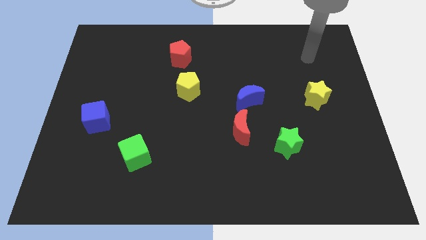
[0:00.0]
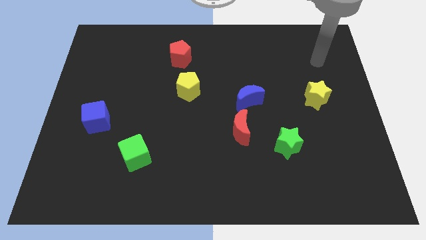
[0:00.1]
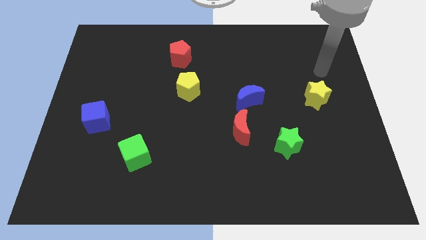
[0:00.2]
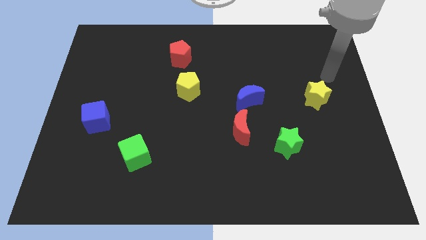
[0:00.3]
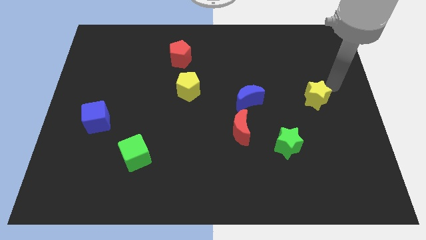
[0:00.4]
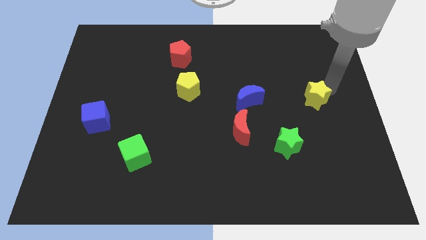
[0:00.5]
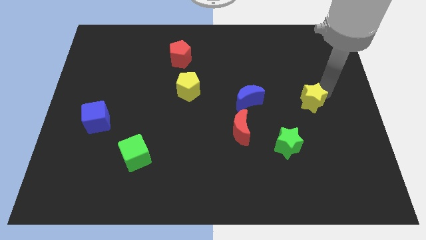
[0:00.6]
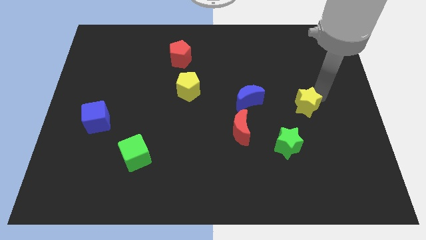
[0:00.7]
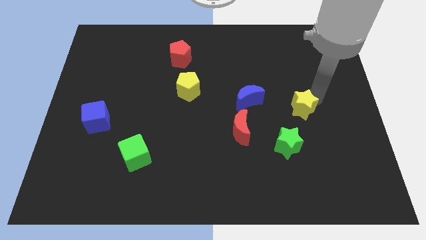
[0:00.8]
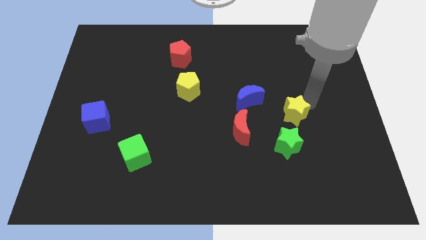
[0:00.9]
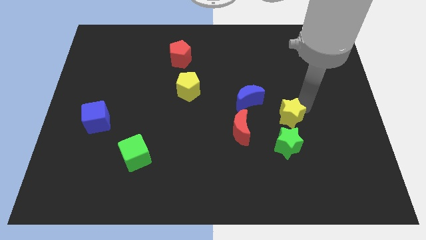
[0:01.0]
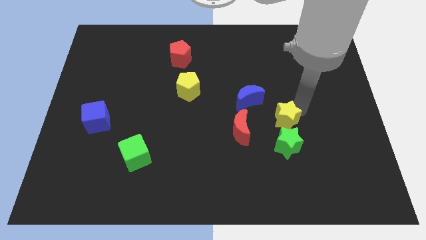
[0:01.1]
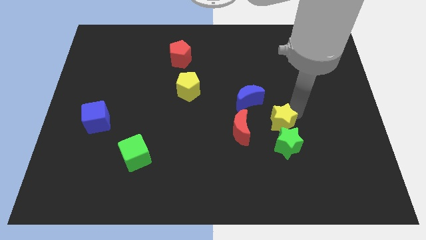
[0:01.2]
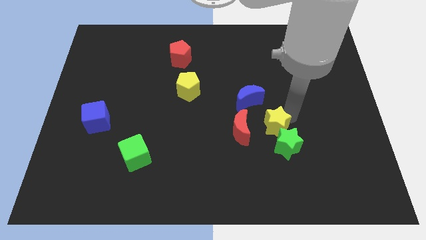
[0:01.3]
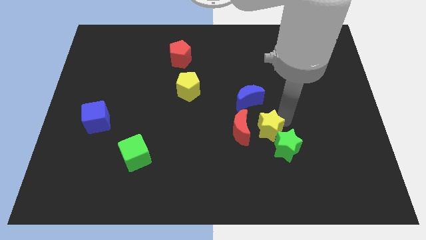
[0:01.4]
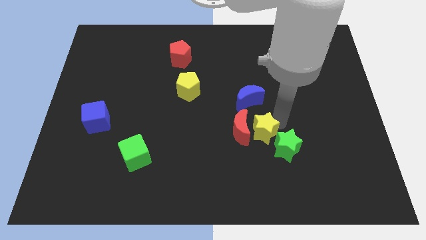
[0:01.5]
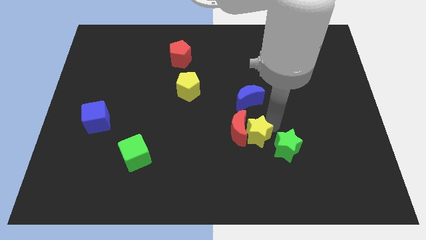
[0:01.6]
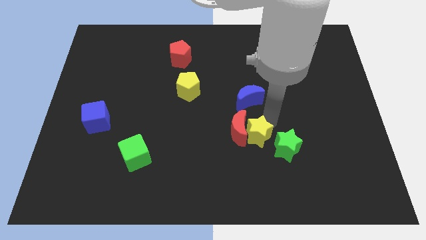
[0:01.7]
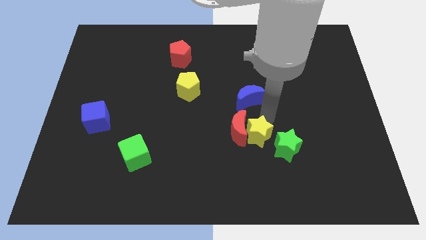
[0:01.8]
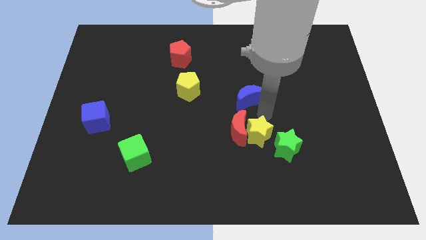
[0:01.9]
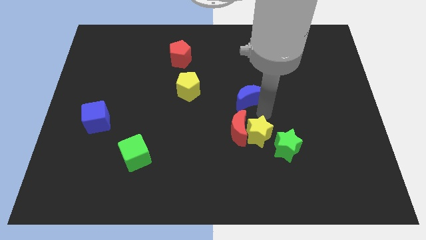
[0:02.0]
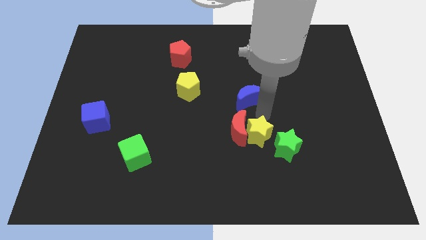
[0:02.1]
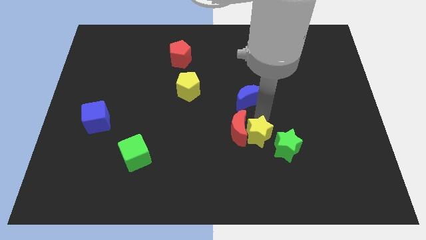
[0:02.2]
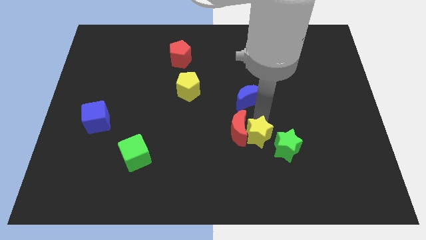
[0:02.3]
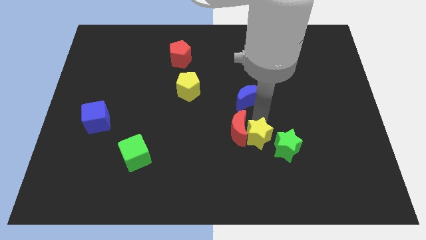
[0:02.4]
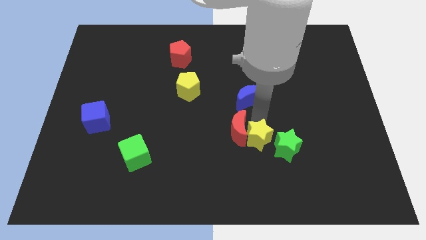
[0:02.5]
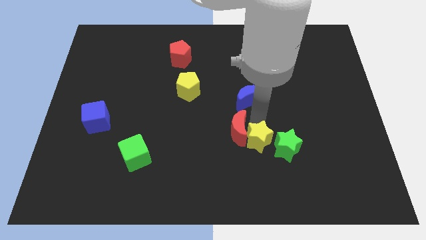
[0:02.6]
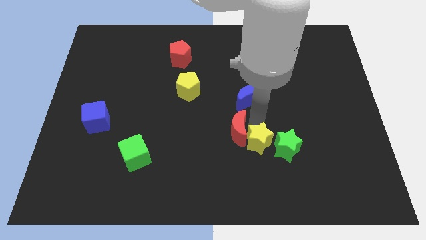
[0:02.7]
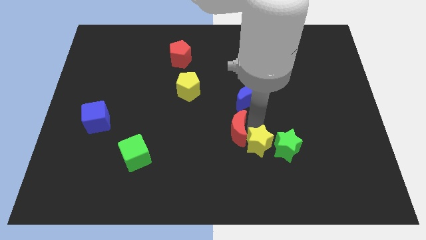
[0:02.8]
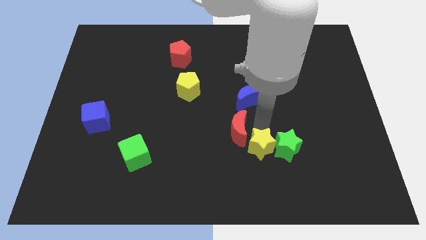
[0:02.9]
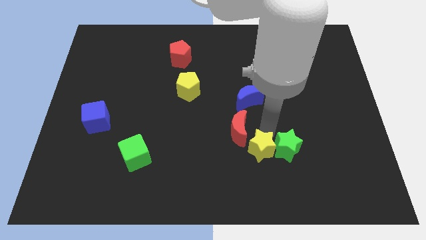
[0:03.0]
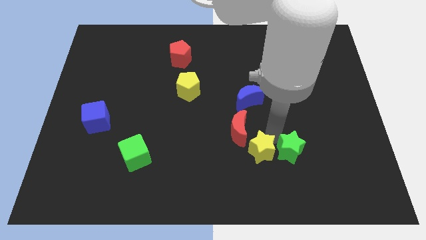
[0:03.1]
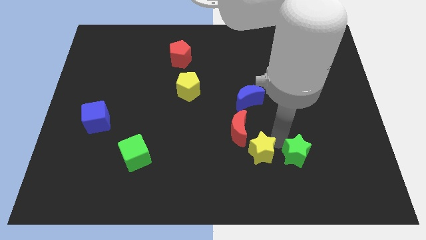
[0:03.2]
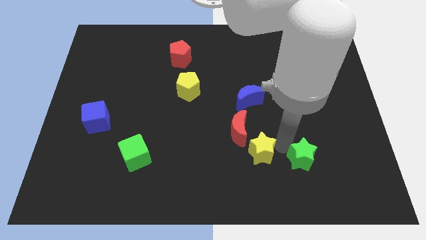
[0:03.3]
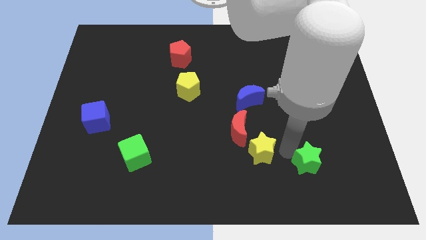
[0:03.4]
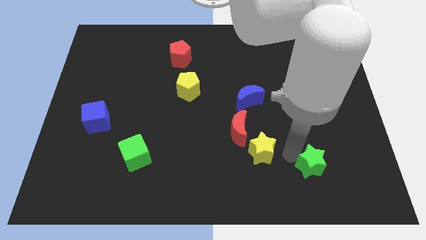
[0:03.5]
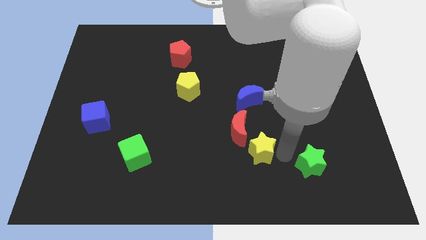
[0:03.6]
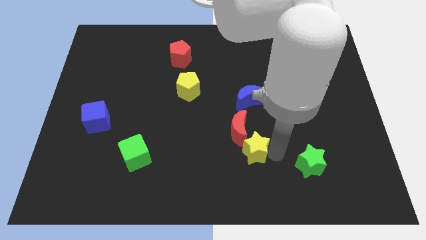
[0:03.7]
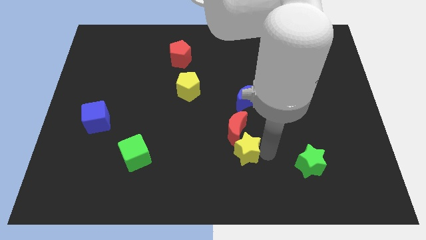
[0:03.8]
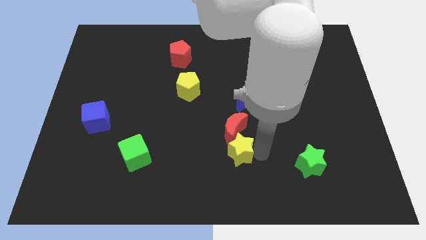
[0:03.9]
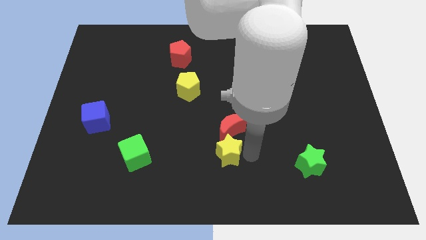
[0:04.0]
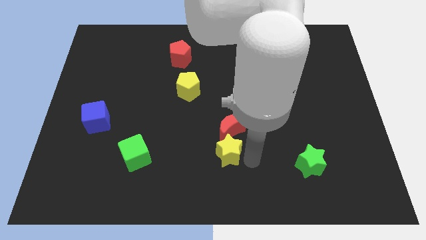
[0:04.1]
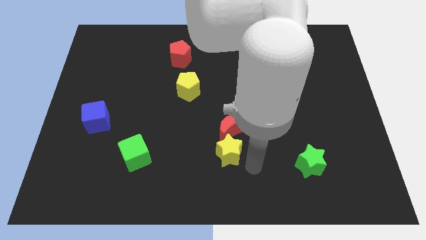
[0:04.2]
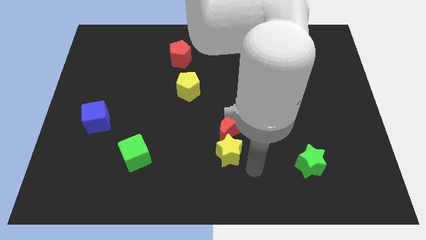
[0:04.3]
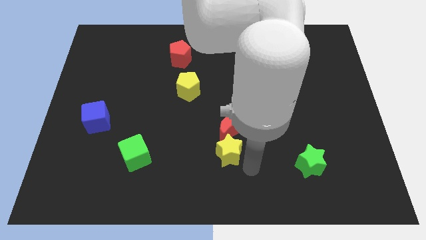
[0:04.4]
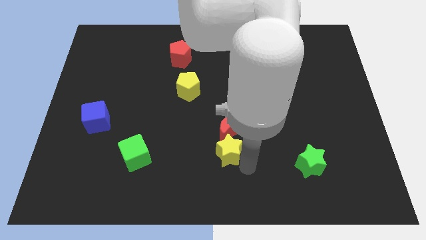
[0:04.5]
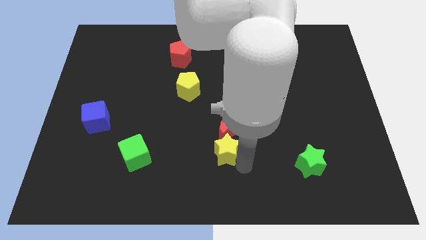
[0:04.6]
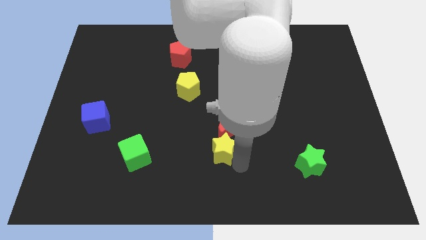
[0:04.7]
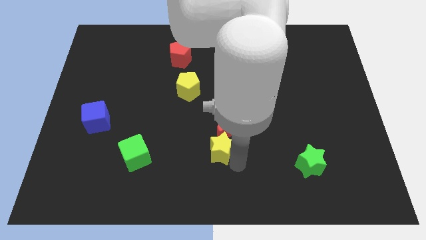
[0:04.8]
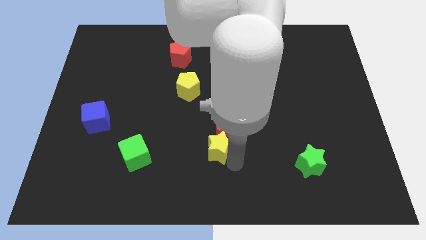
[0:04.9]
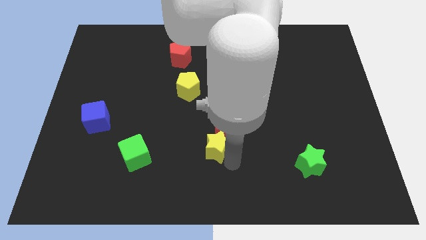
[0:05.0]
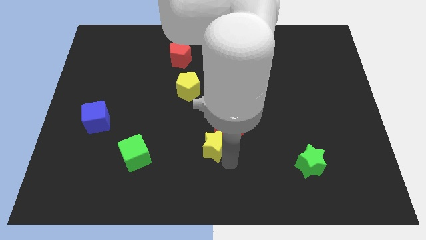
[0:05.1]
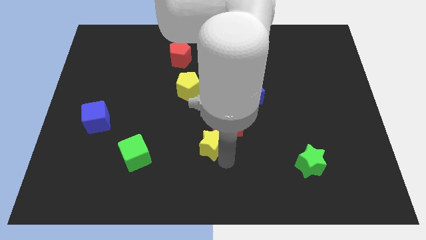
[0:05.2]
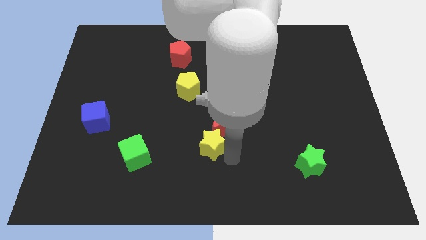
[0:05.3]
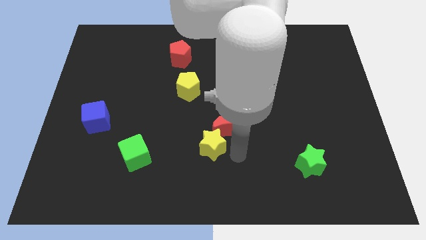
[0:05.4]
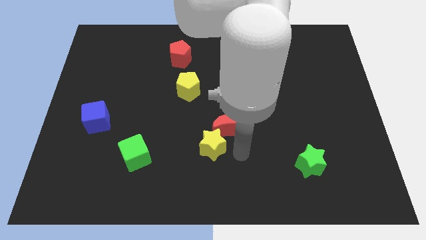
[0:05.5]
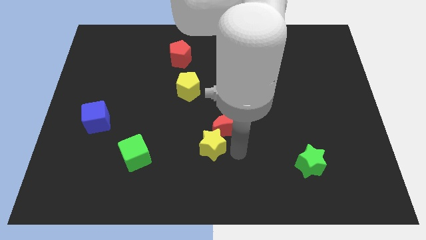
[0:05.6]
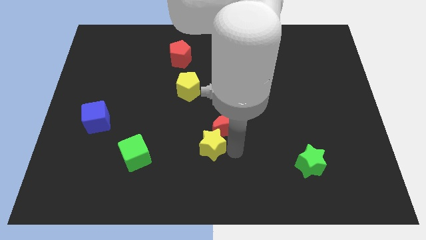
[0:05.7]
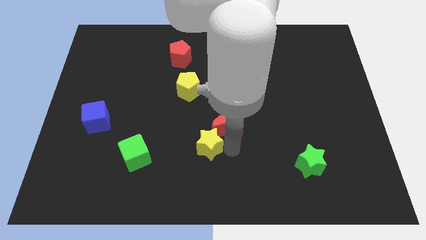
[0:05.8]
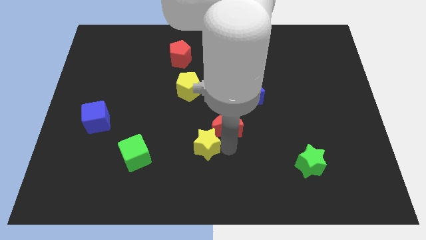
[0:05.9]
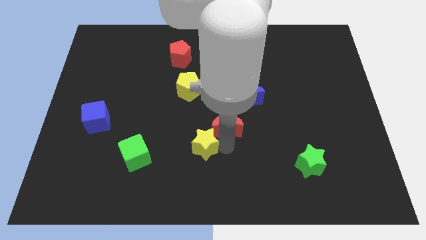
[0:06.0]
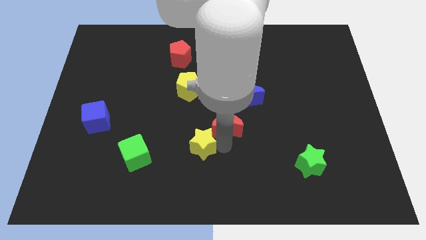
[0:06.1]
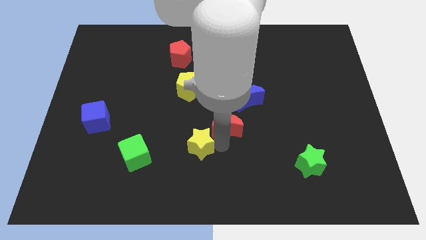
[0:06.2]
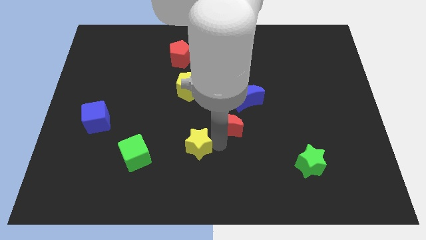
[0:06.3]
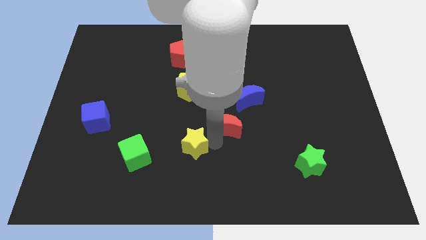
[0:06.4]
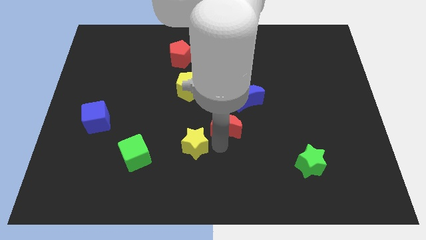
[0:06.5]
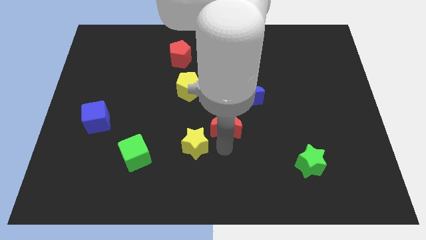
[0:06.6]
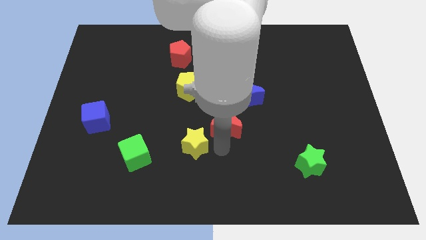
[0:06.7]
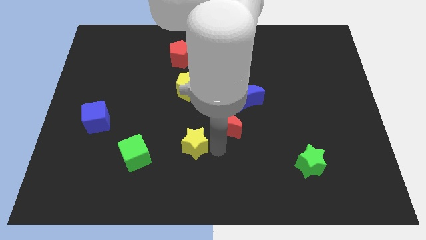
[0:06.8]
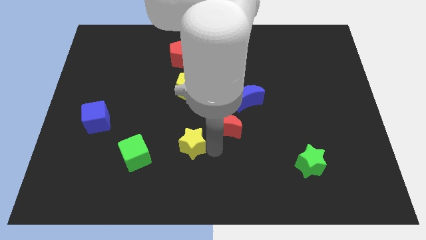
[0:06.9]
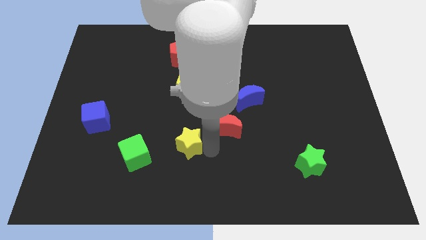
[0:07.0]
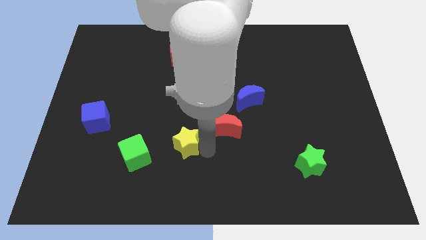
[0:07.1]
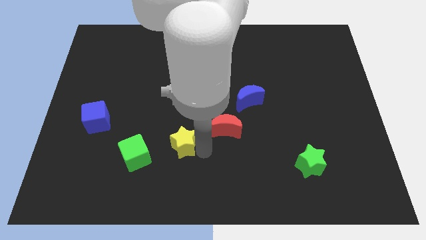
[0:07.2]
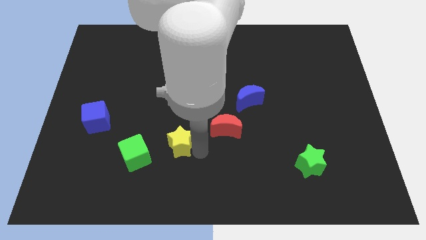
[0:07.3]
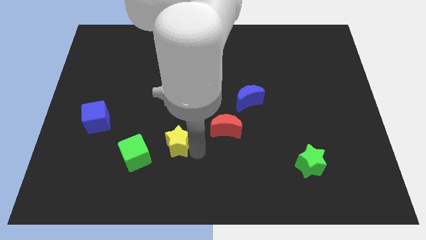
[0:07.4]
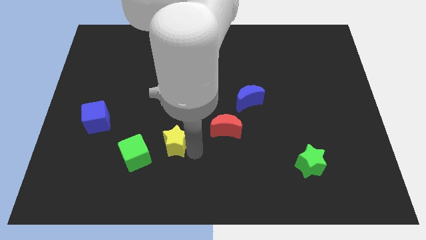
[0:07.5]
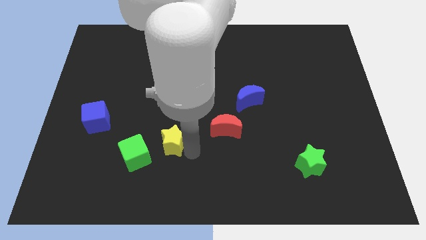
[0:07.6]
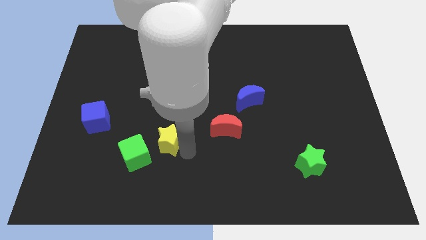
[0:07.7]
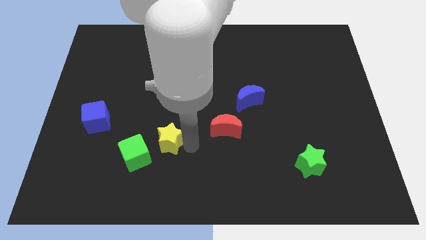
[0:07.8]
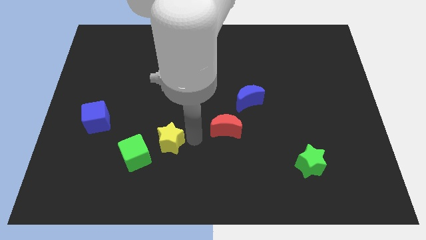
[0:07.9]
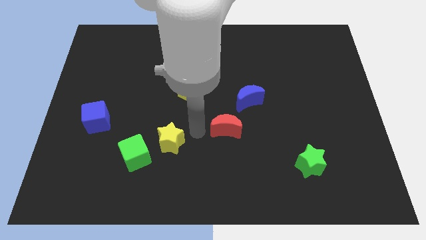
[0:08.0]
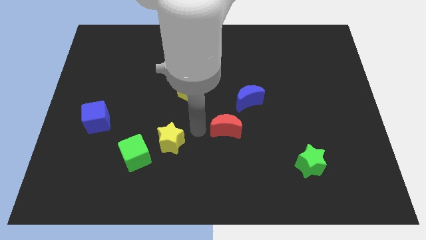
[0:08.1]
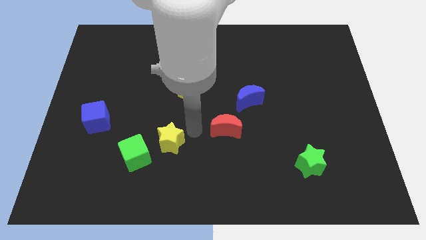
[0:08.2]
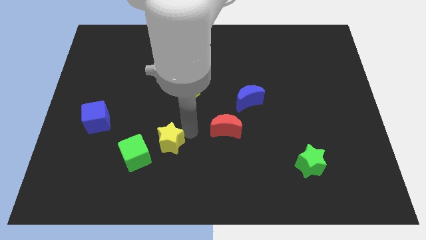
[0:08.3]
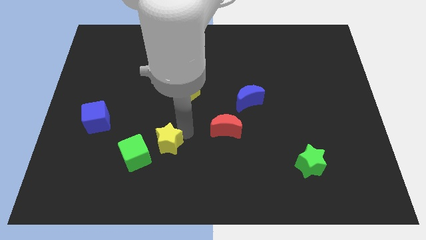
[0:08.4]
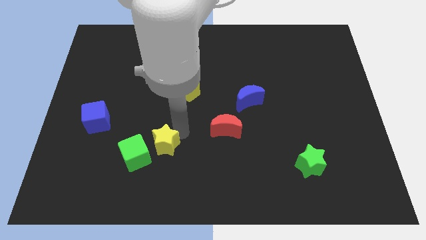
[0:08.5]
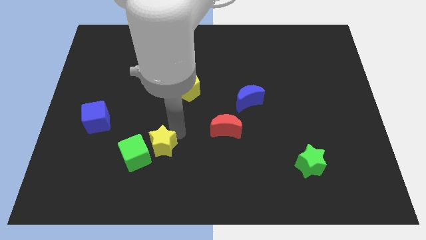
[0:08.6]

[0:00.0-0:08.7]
push the yellow star close to the green cube
